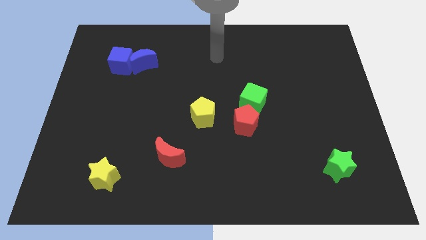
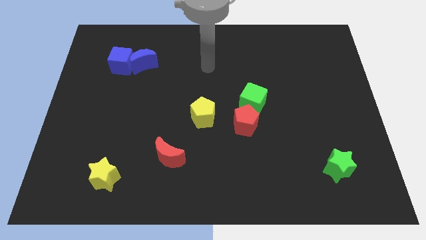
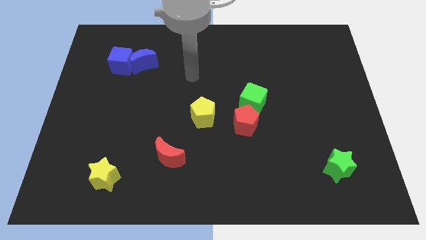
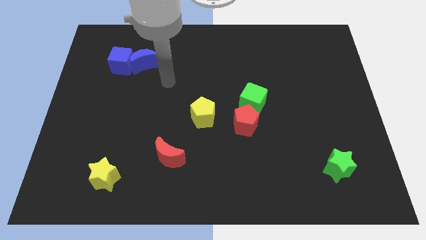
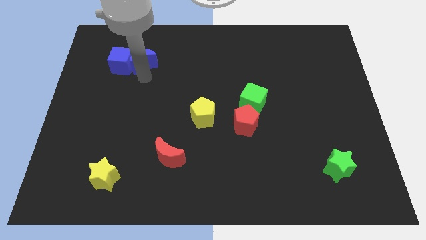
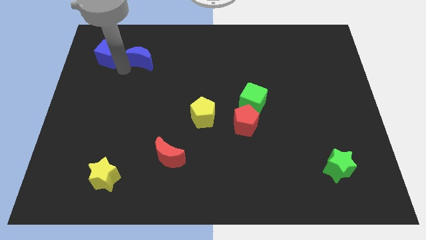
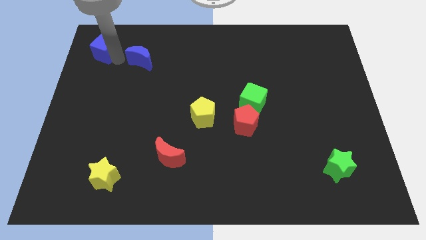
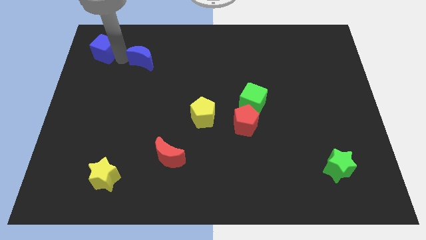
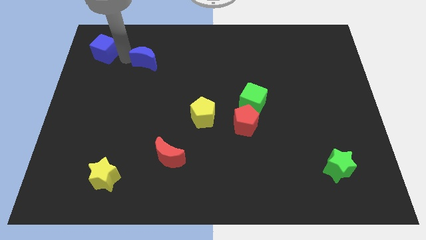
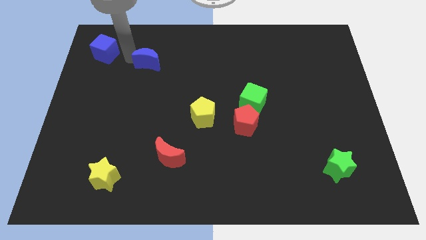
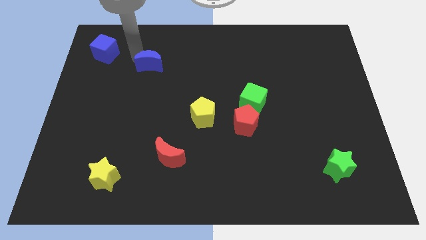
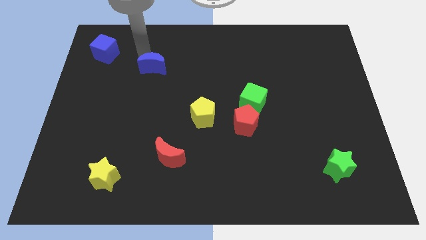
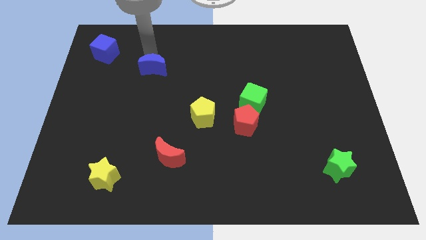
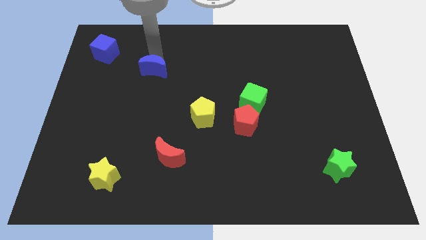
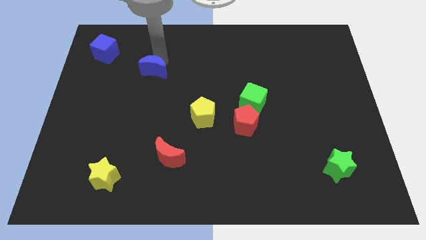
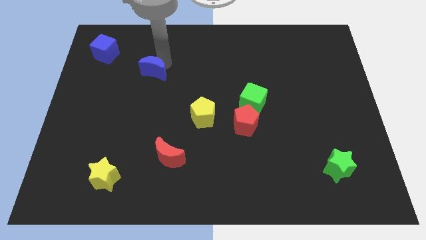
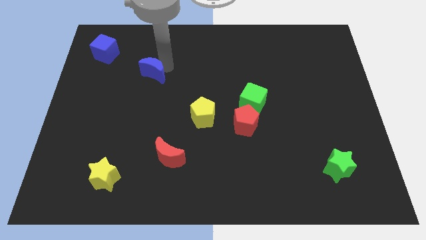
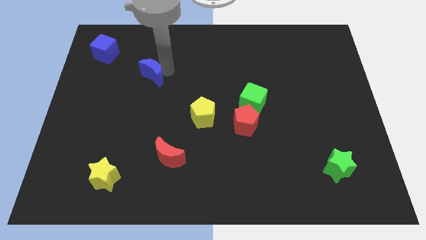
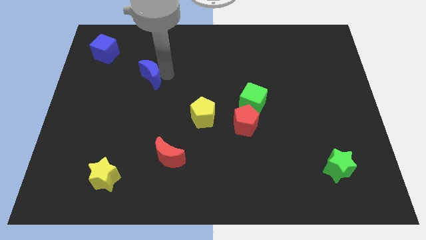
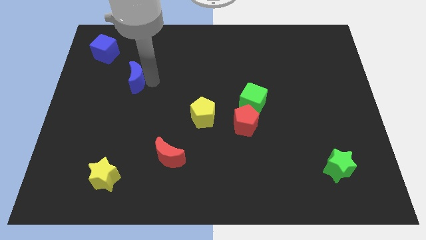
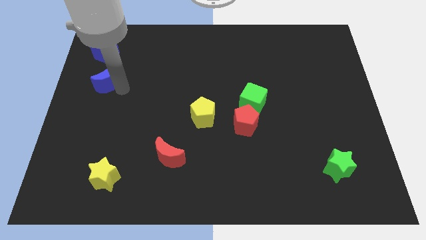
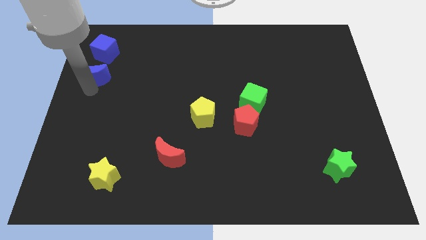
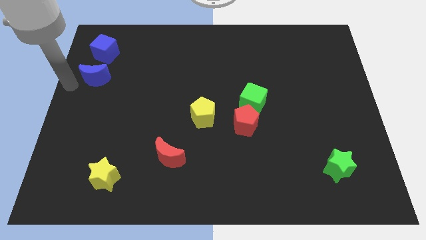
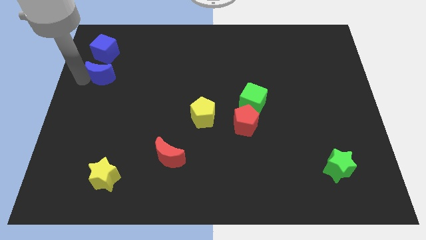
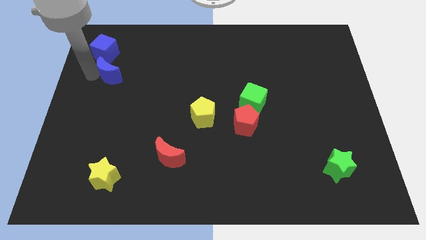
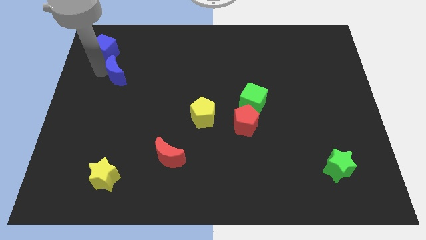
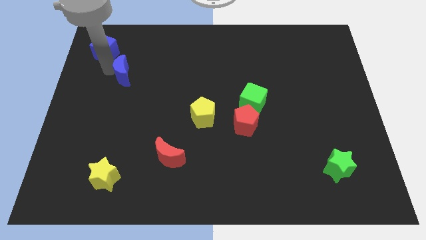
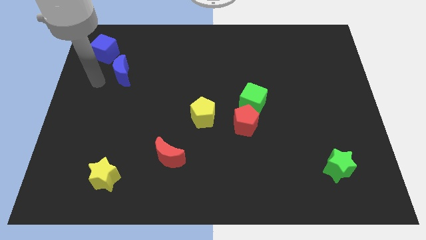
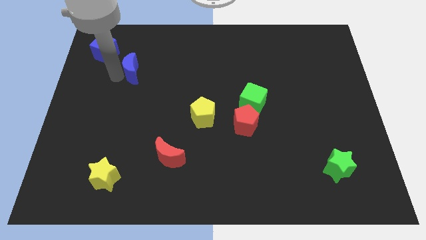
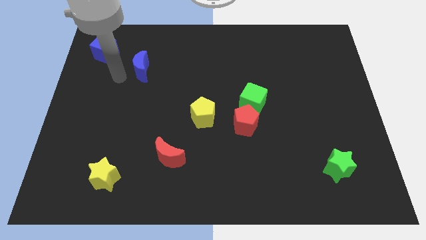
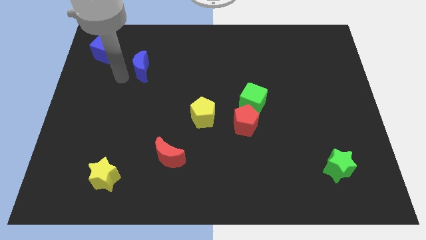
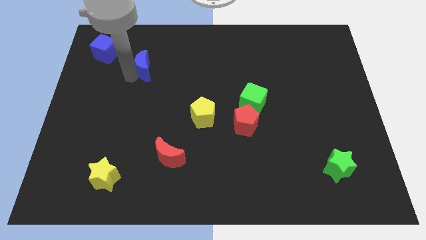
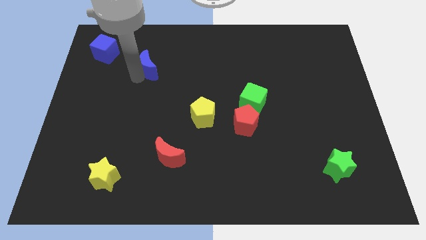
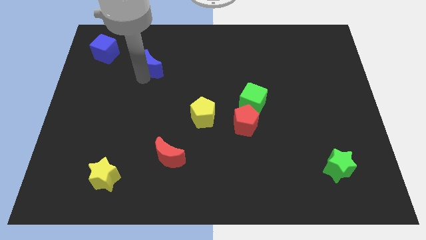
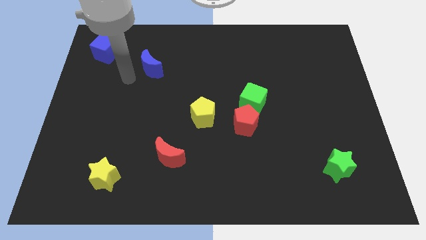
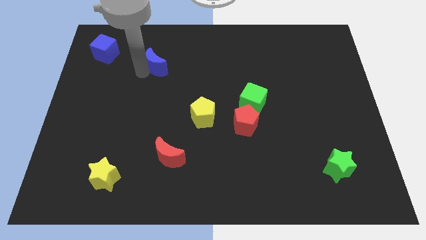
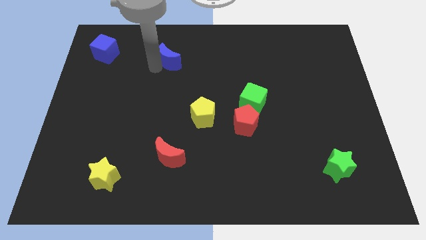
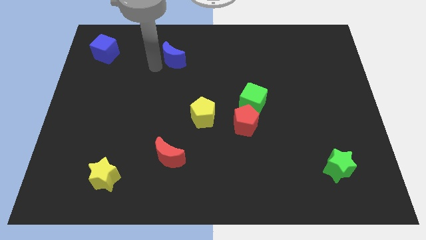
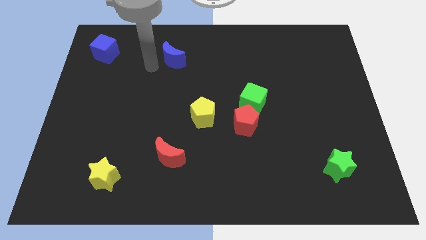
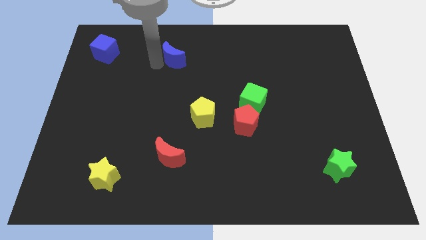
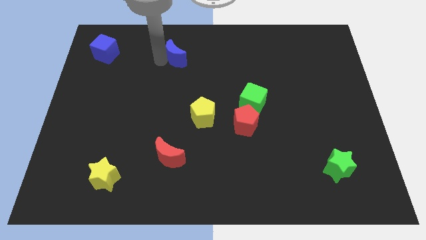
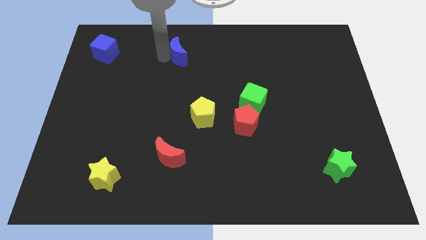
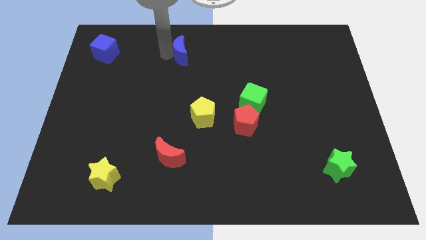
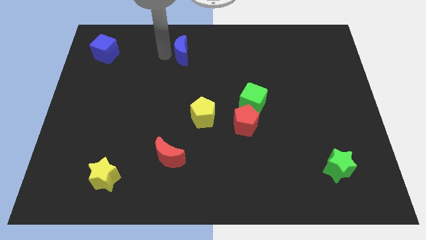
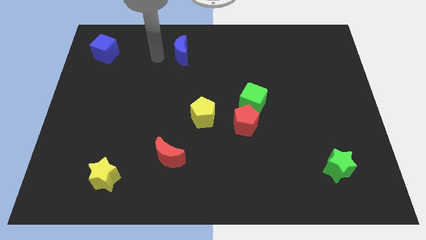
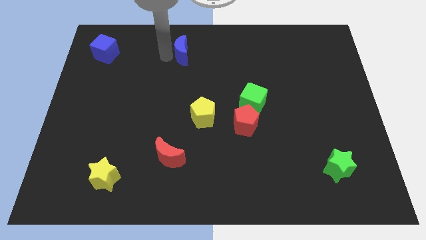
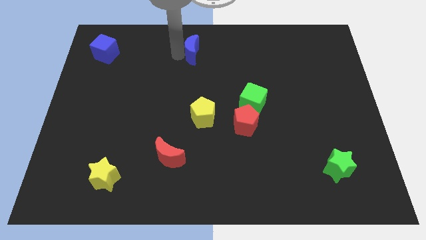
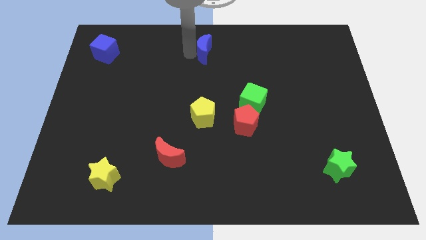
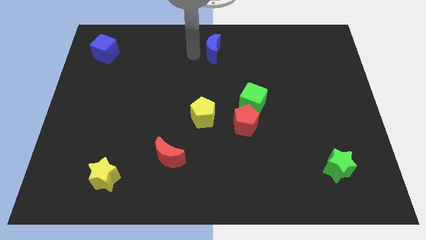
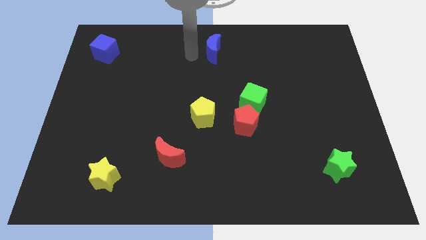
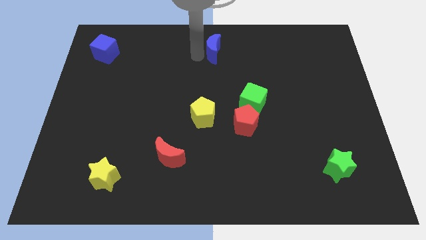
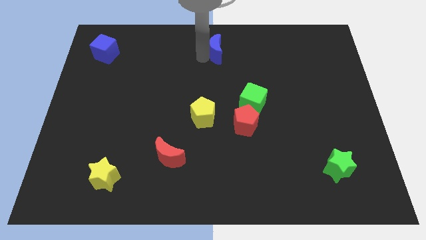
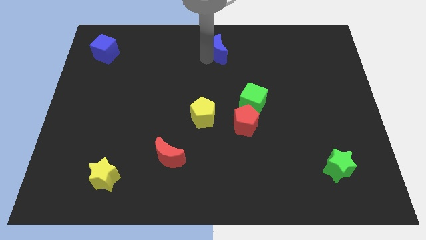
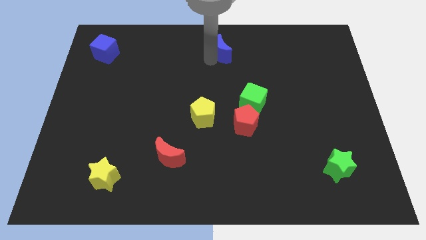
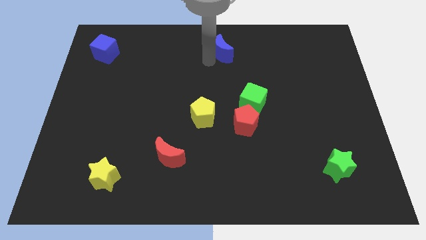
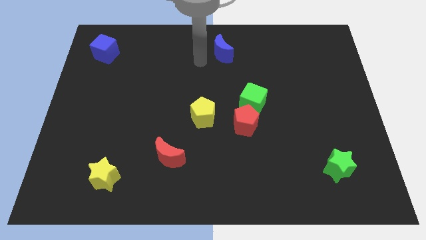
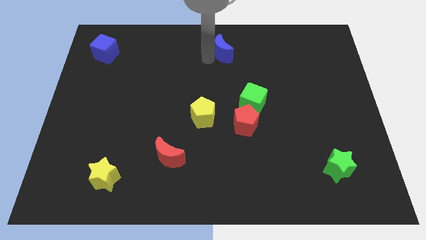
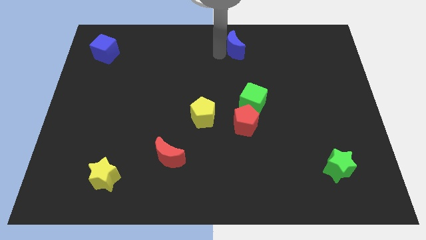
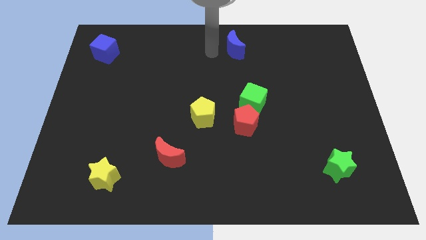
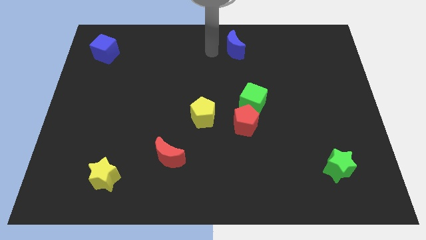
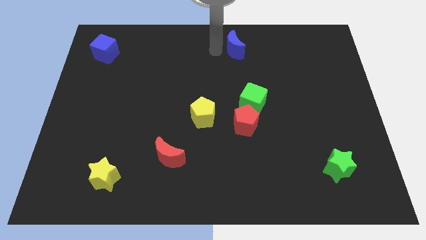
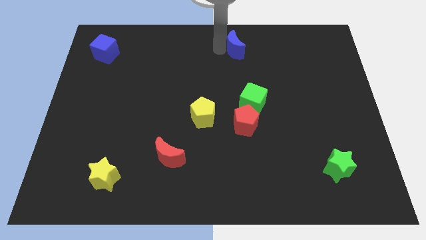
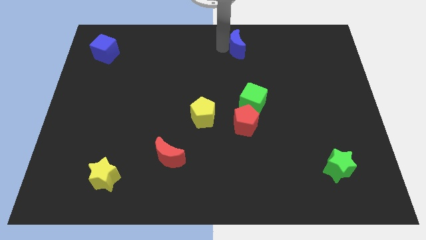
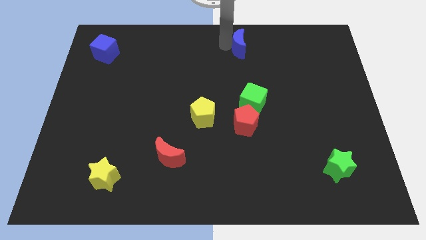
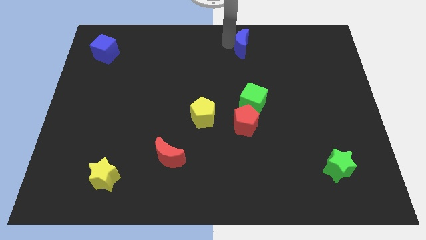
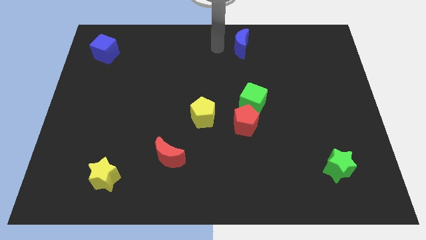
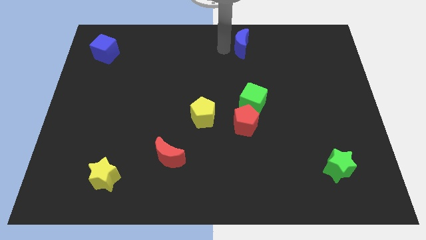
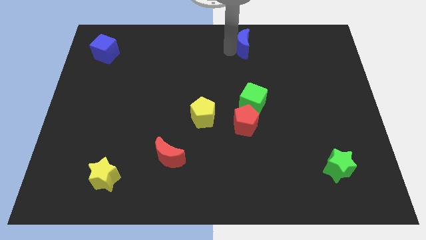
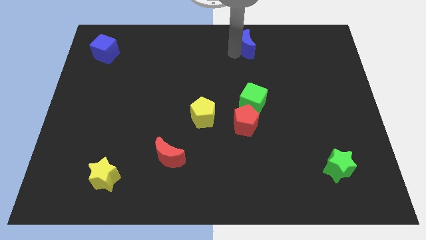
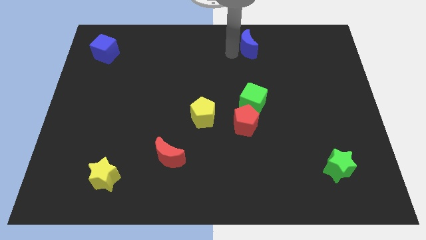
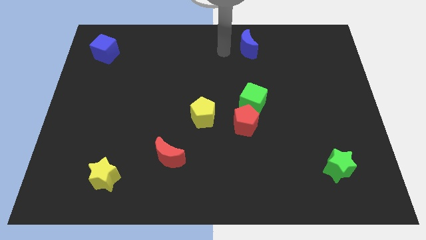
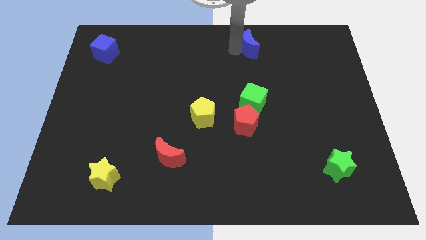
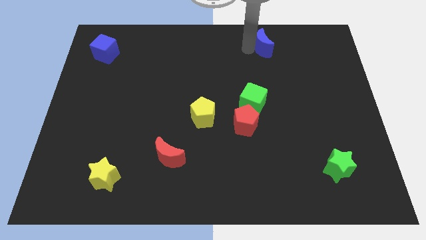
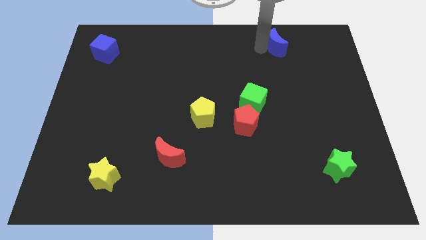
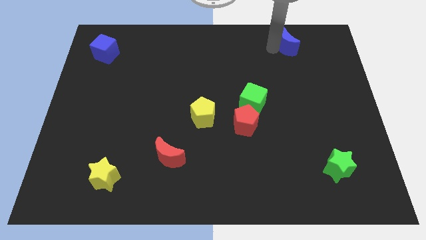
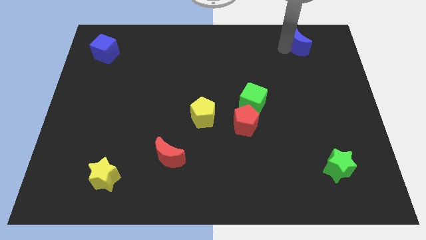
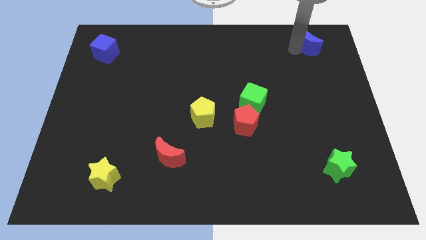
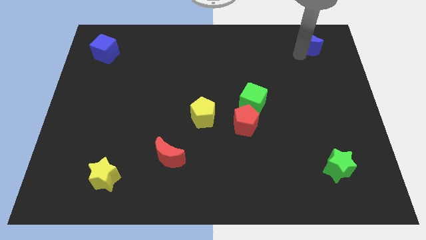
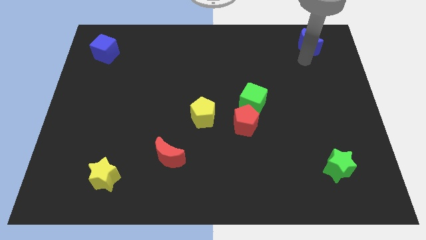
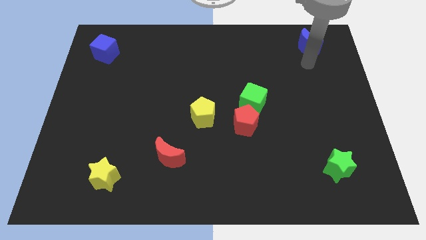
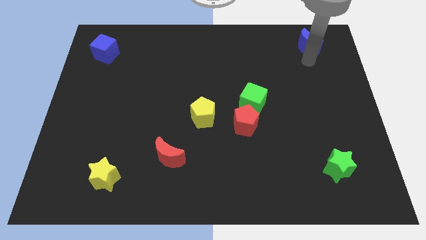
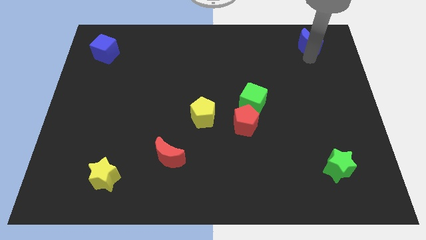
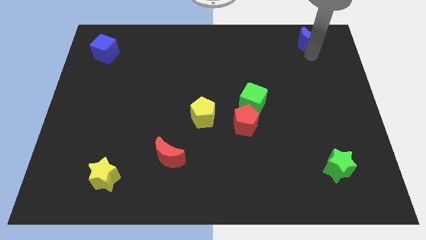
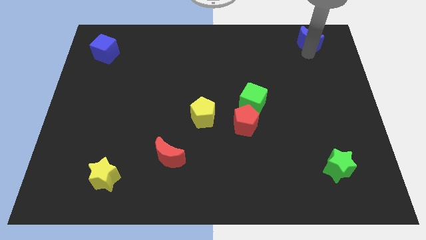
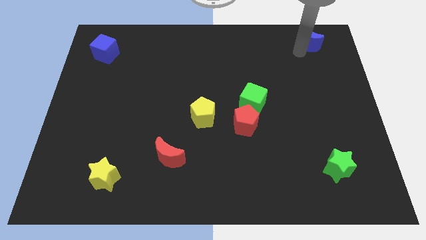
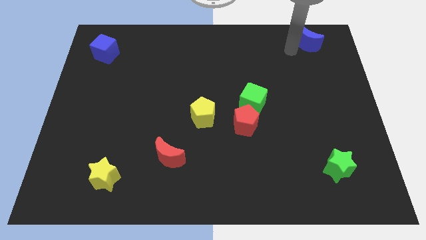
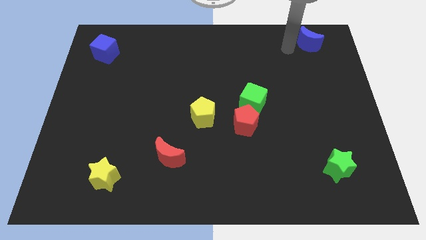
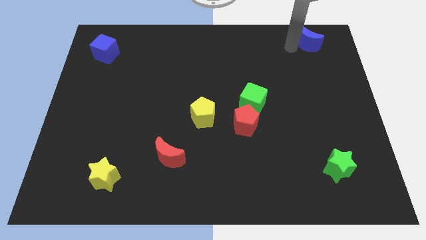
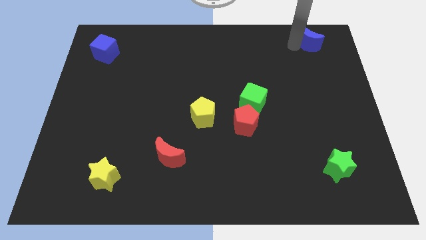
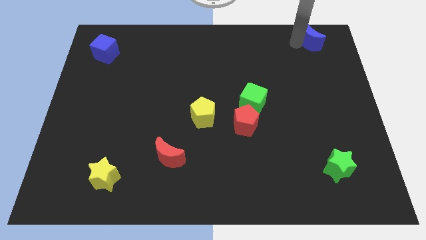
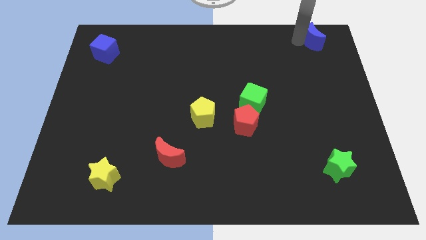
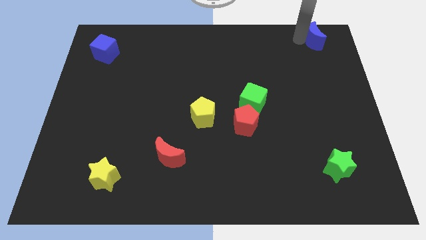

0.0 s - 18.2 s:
push the blue moon to the top right of the board
